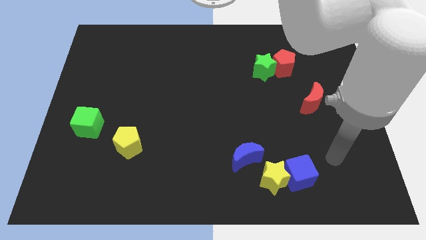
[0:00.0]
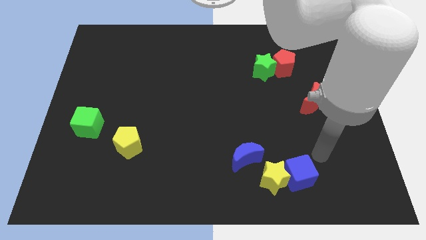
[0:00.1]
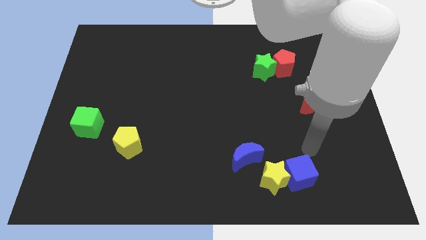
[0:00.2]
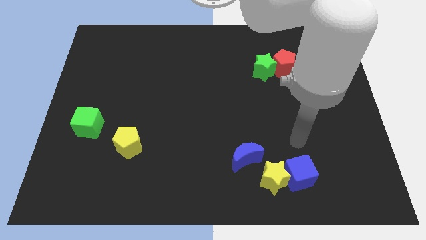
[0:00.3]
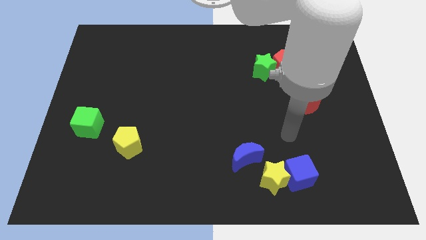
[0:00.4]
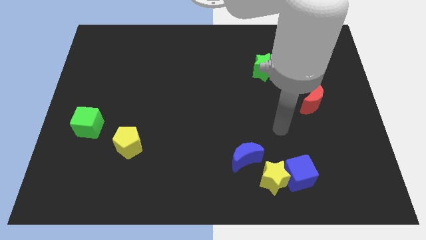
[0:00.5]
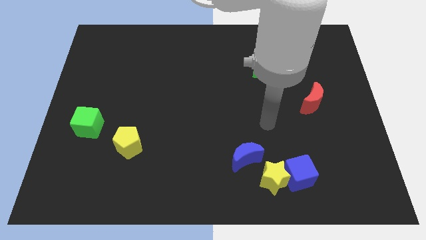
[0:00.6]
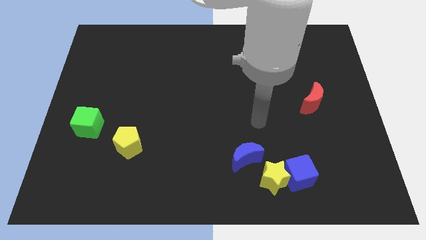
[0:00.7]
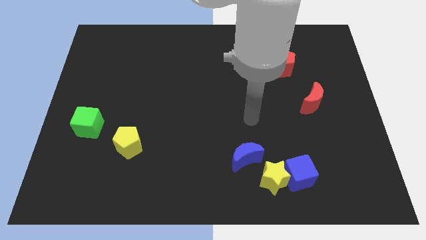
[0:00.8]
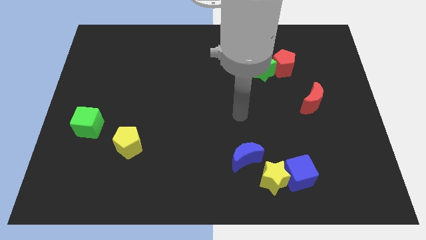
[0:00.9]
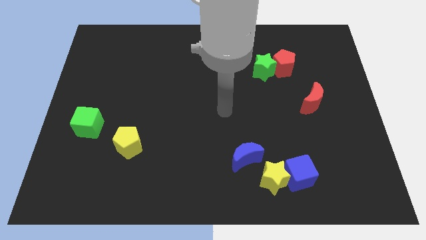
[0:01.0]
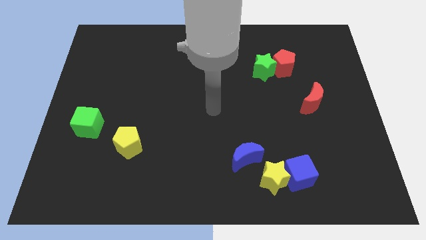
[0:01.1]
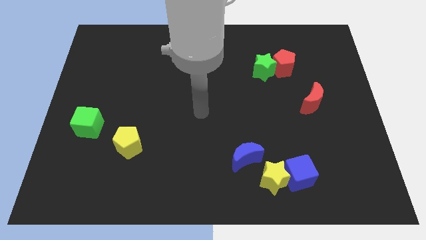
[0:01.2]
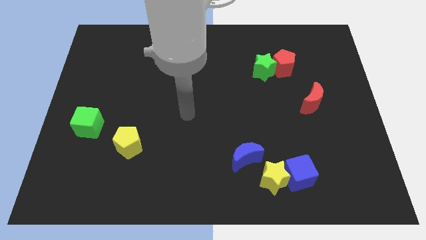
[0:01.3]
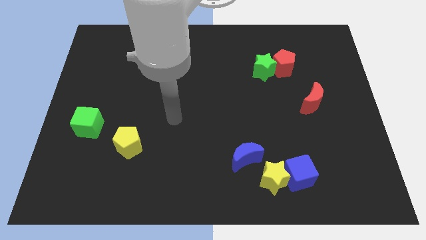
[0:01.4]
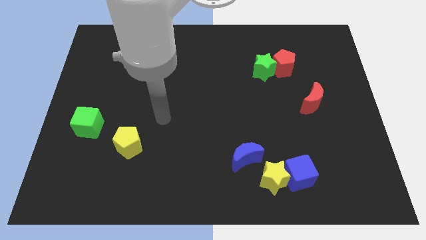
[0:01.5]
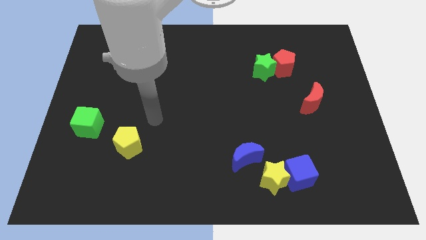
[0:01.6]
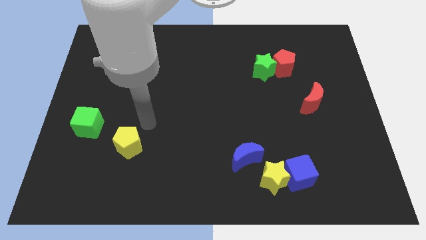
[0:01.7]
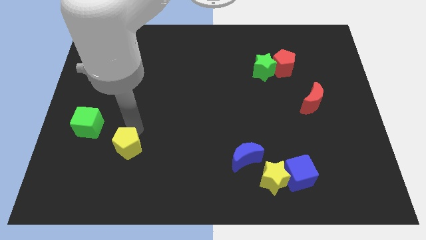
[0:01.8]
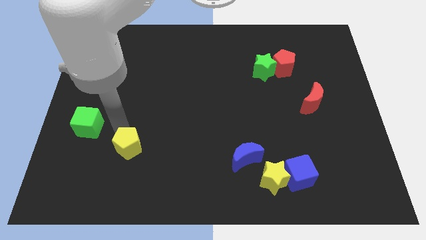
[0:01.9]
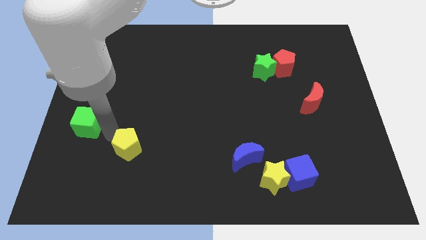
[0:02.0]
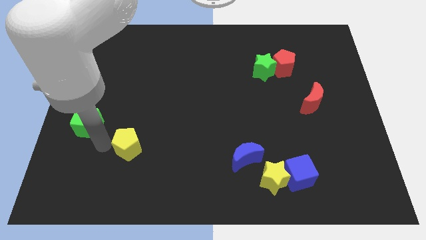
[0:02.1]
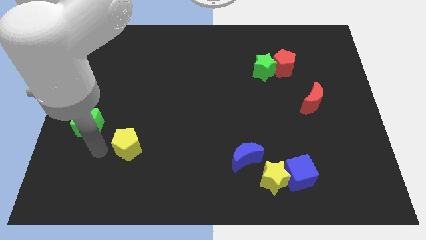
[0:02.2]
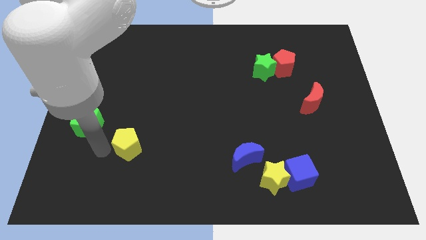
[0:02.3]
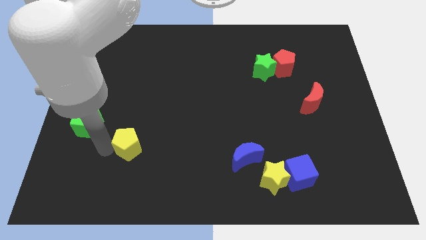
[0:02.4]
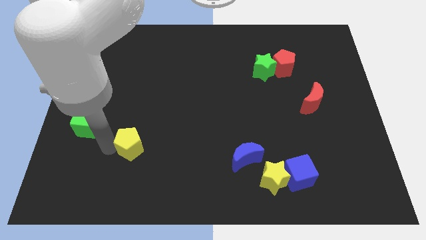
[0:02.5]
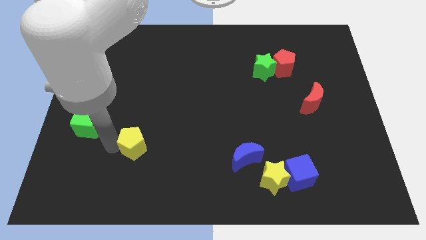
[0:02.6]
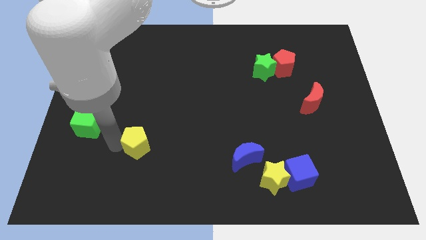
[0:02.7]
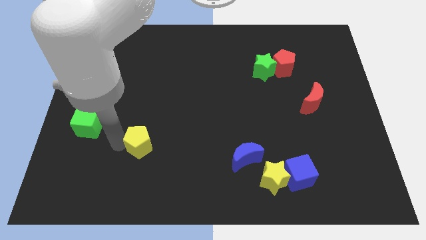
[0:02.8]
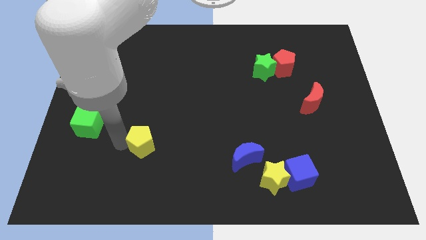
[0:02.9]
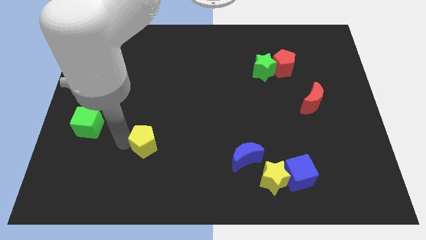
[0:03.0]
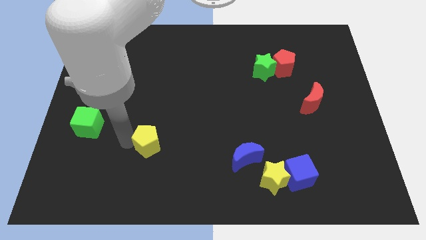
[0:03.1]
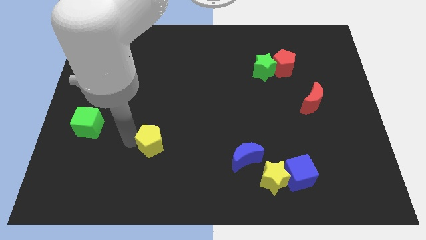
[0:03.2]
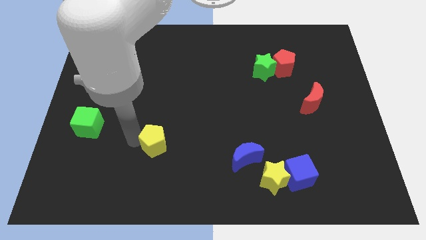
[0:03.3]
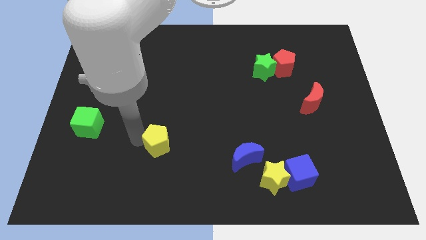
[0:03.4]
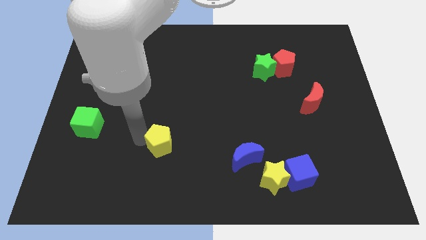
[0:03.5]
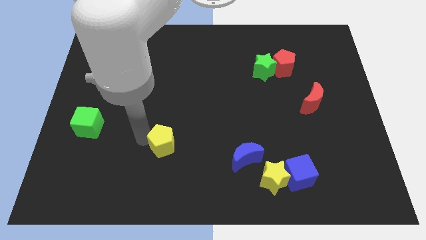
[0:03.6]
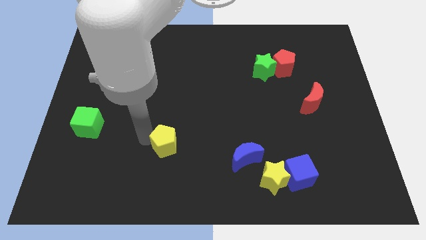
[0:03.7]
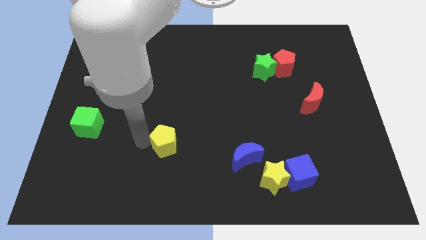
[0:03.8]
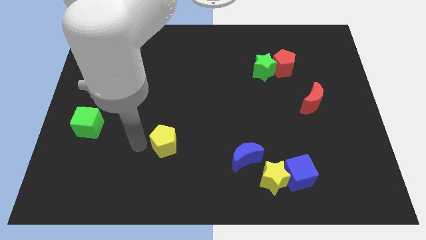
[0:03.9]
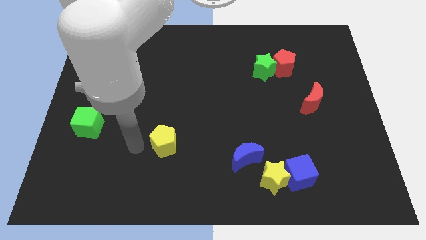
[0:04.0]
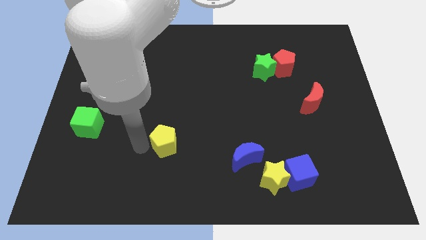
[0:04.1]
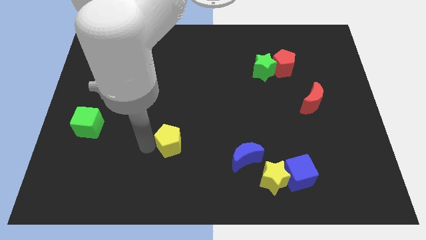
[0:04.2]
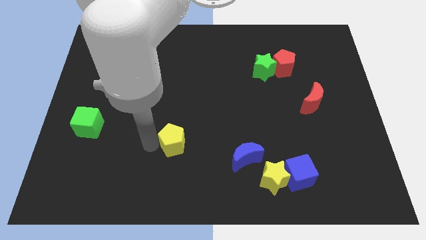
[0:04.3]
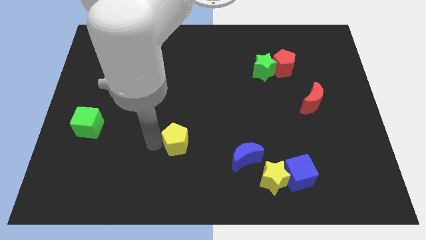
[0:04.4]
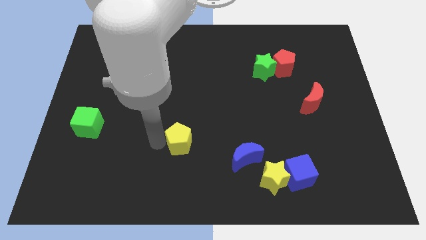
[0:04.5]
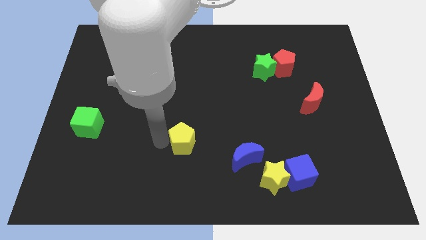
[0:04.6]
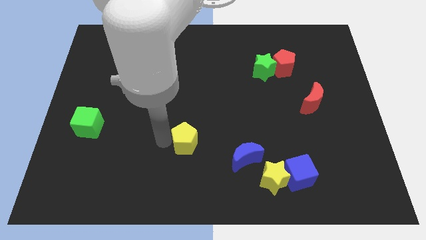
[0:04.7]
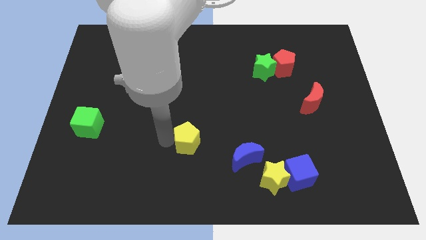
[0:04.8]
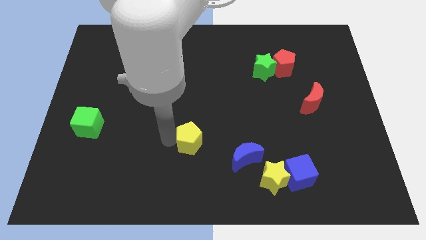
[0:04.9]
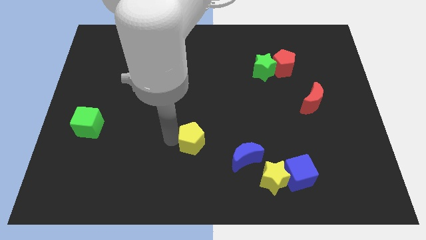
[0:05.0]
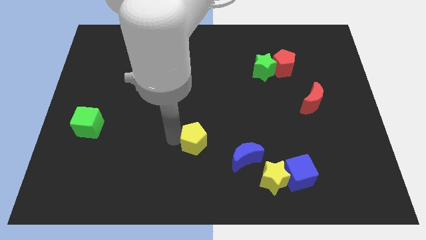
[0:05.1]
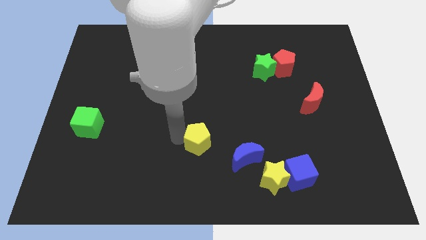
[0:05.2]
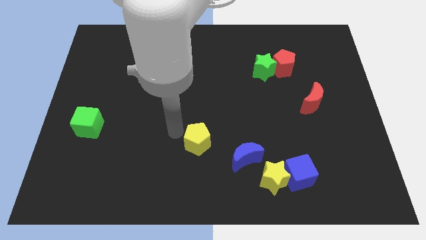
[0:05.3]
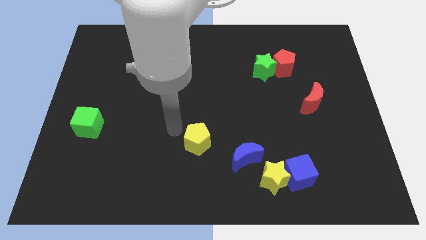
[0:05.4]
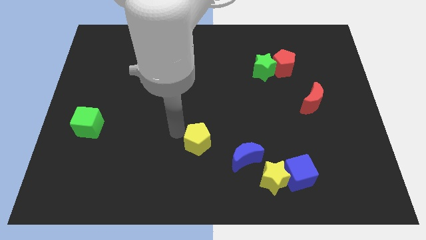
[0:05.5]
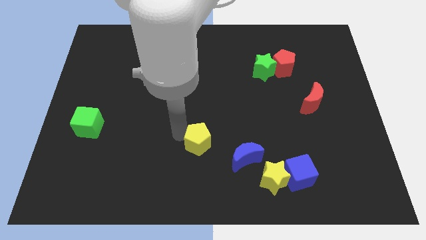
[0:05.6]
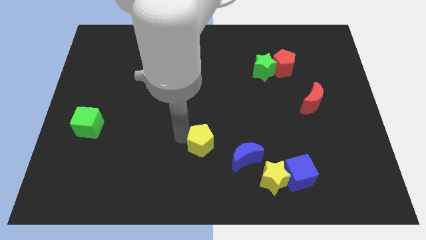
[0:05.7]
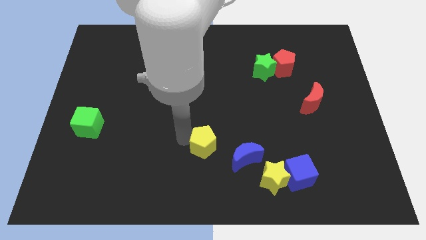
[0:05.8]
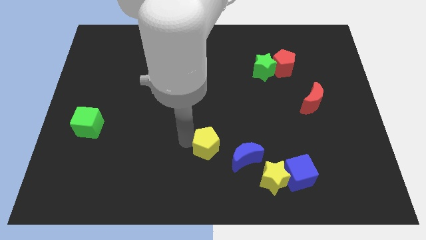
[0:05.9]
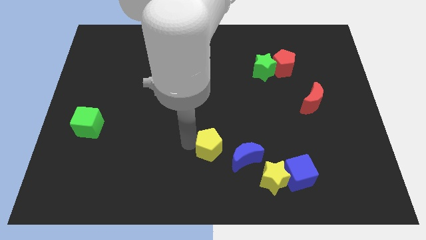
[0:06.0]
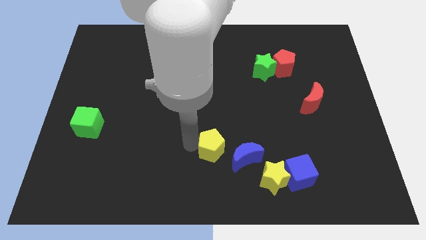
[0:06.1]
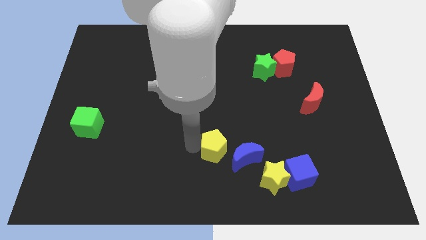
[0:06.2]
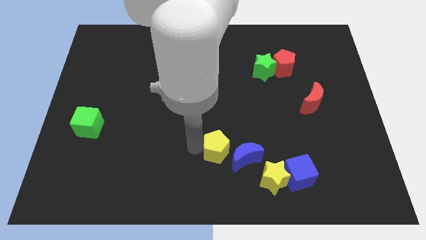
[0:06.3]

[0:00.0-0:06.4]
put the yellow pentagon close to the blue moon

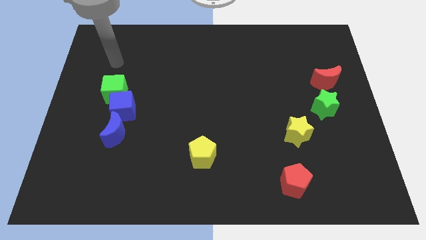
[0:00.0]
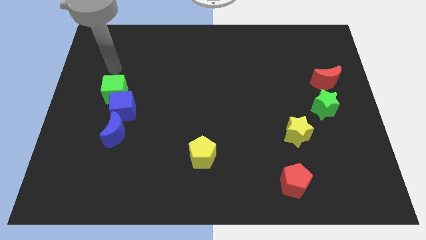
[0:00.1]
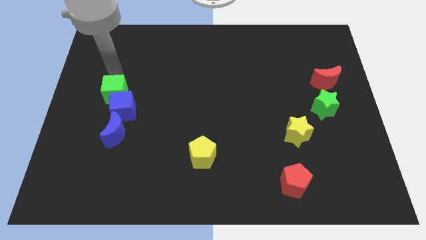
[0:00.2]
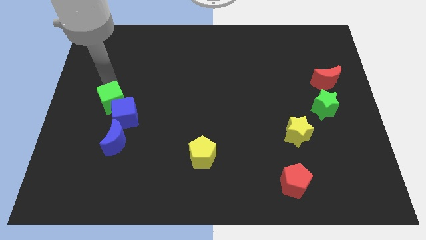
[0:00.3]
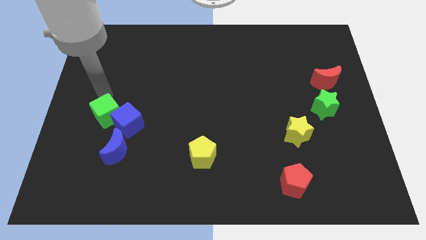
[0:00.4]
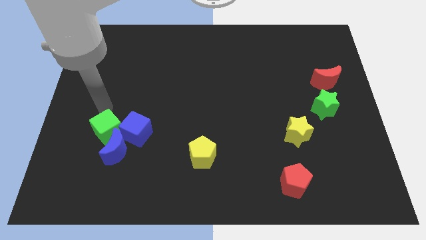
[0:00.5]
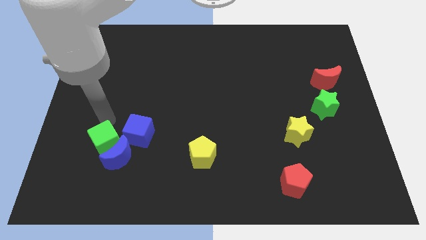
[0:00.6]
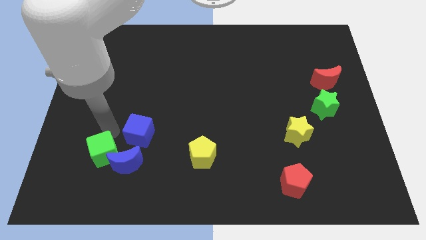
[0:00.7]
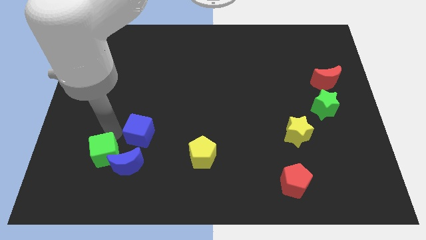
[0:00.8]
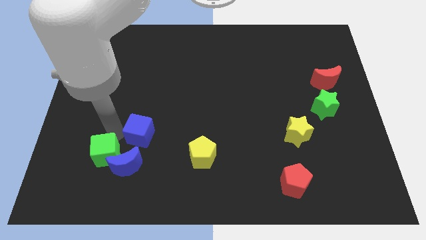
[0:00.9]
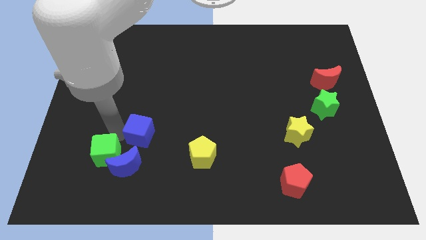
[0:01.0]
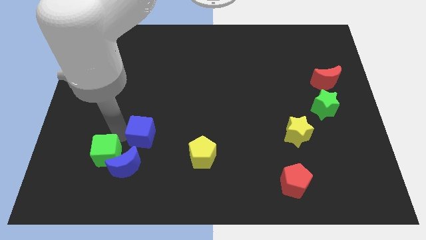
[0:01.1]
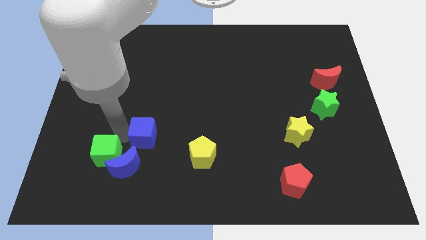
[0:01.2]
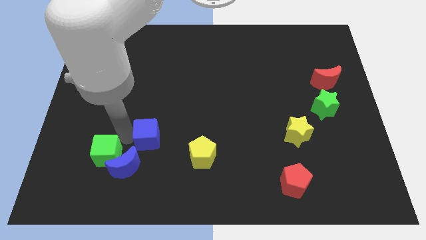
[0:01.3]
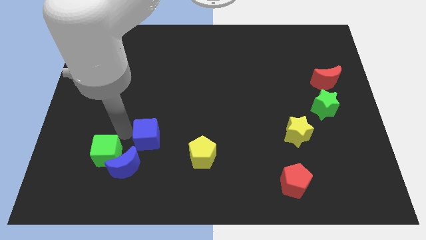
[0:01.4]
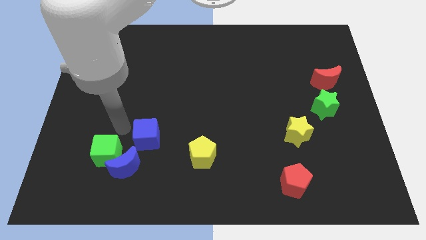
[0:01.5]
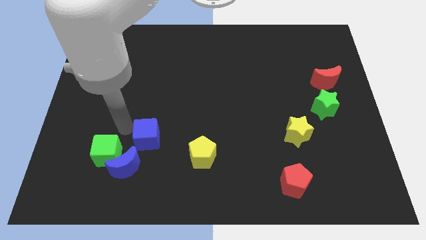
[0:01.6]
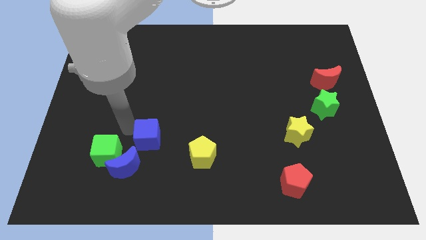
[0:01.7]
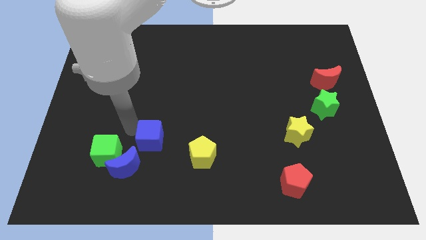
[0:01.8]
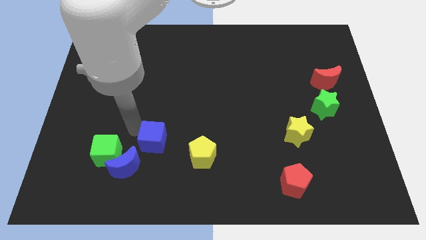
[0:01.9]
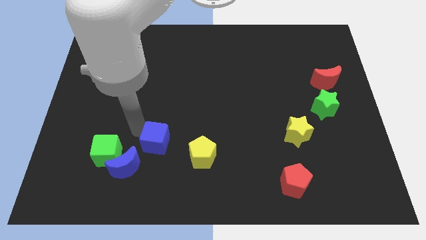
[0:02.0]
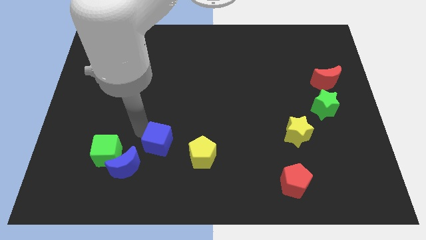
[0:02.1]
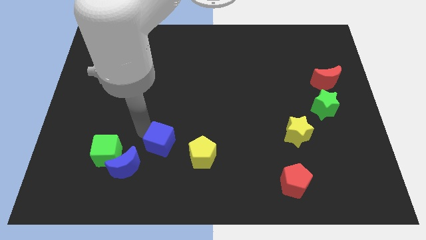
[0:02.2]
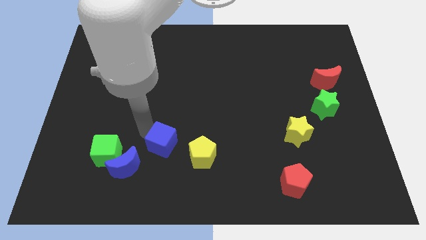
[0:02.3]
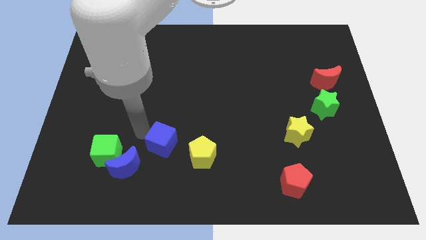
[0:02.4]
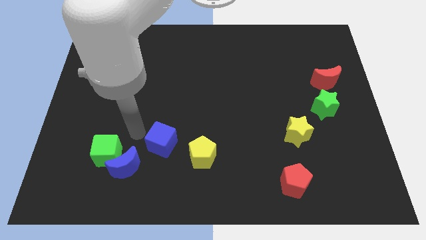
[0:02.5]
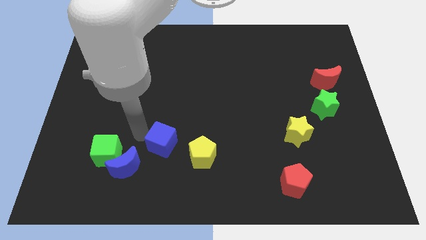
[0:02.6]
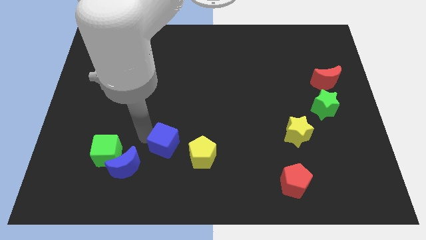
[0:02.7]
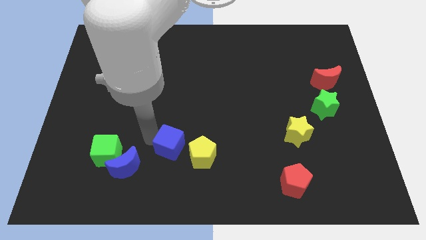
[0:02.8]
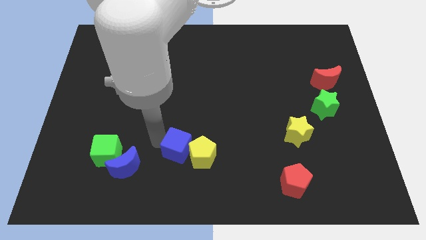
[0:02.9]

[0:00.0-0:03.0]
put the blue cube close to the yellow pentagon
